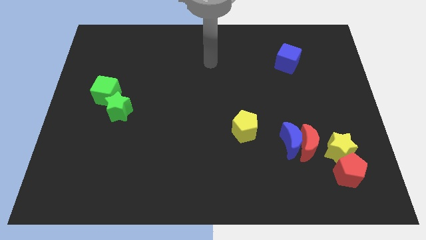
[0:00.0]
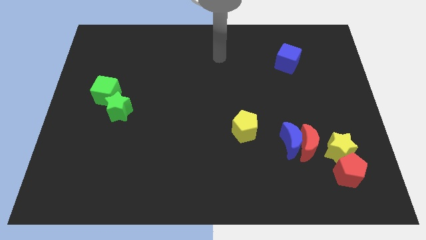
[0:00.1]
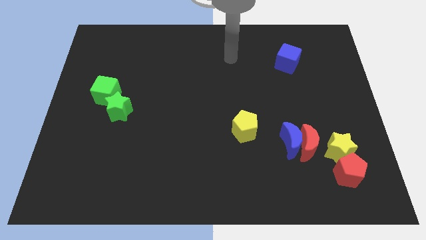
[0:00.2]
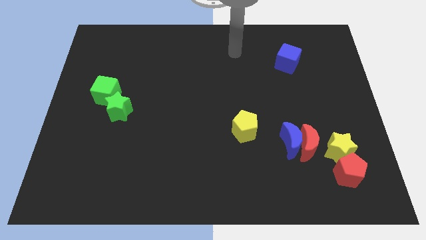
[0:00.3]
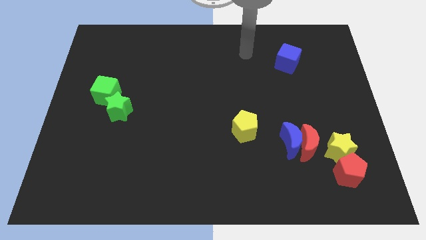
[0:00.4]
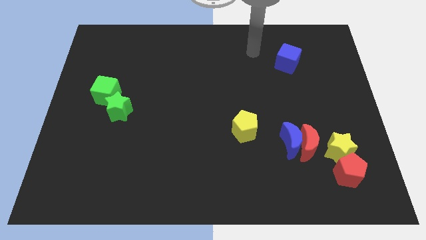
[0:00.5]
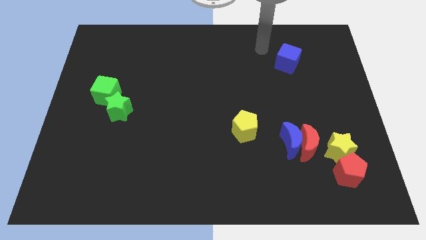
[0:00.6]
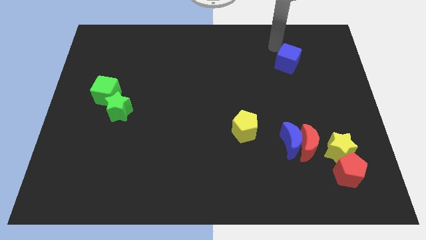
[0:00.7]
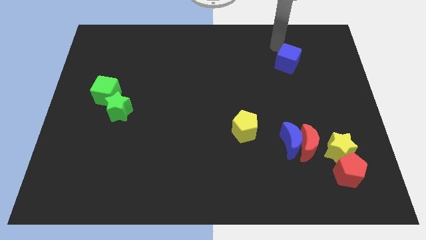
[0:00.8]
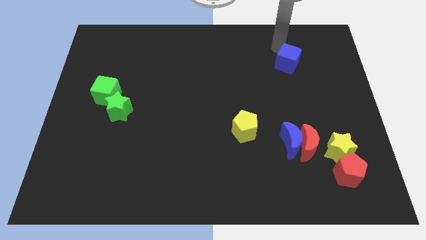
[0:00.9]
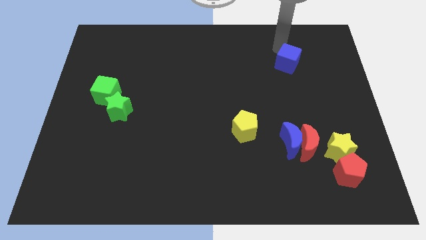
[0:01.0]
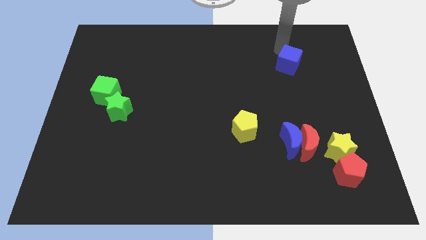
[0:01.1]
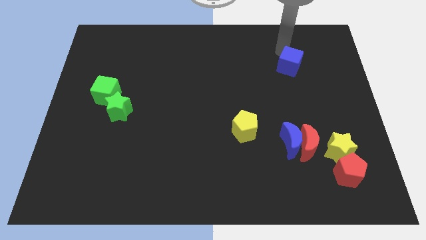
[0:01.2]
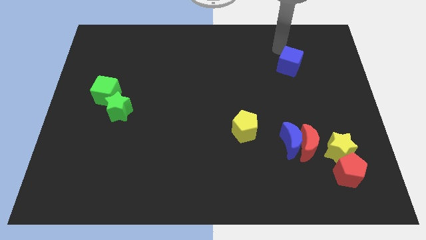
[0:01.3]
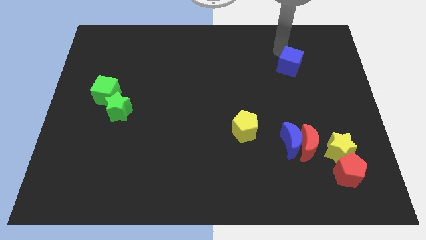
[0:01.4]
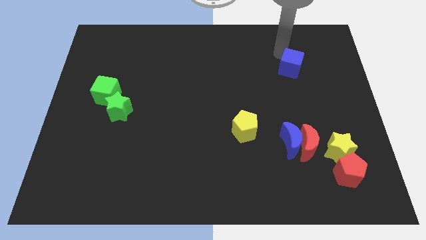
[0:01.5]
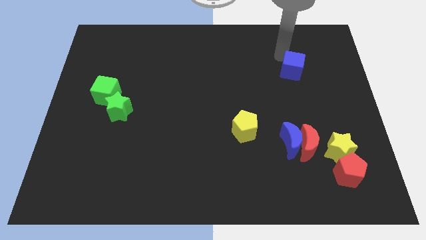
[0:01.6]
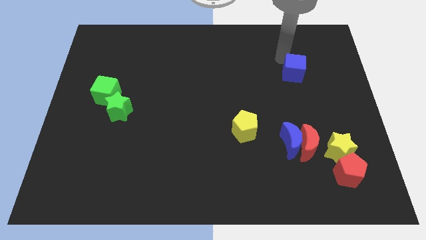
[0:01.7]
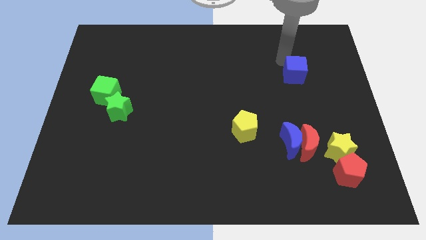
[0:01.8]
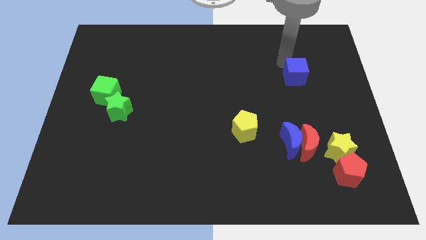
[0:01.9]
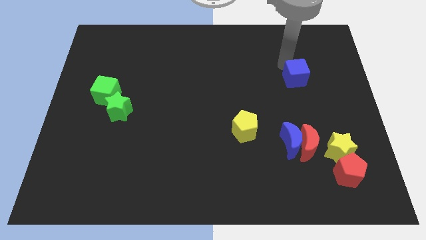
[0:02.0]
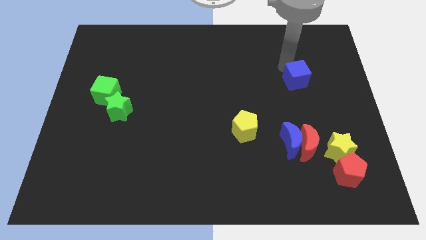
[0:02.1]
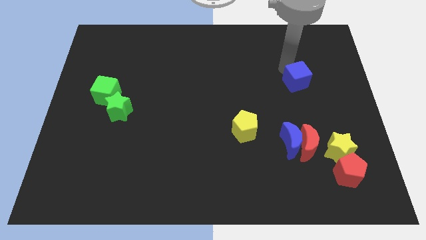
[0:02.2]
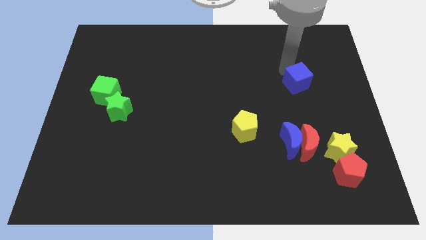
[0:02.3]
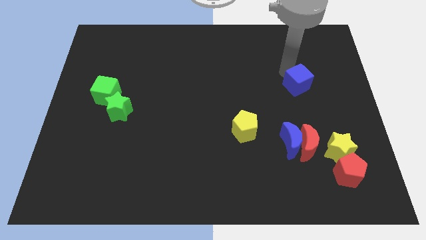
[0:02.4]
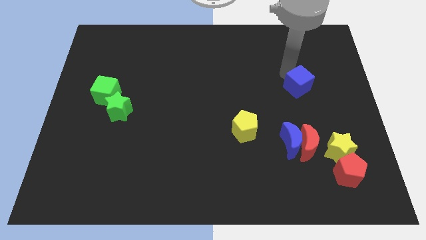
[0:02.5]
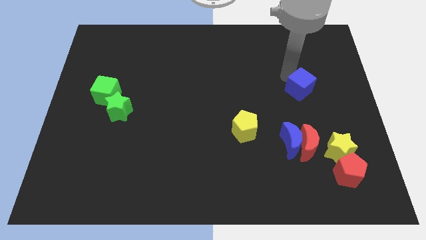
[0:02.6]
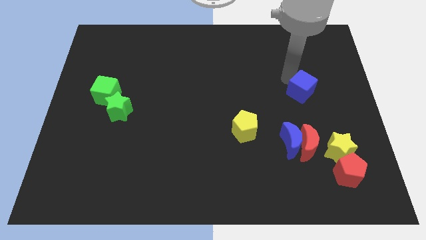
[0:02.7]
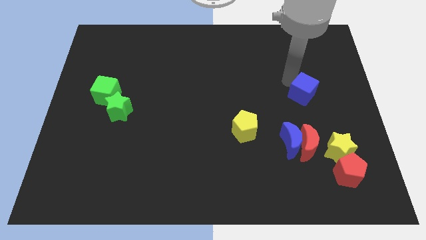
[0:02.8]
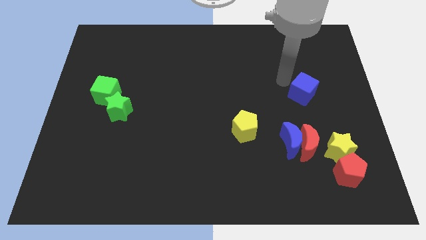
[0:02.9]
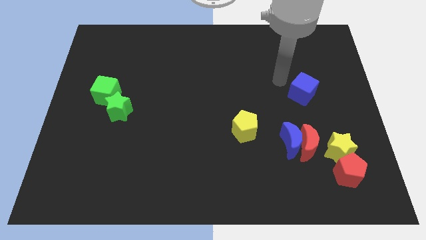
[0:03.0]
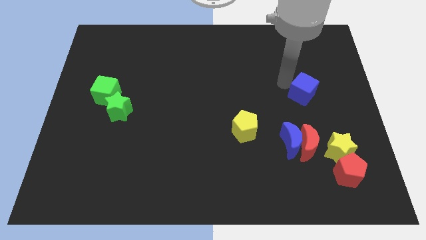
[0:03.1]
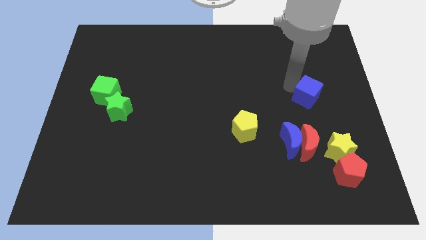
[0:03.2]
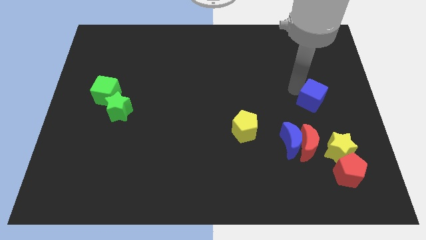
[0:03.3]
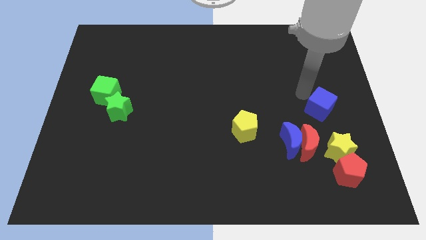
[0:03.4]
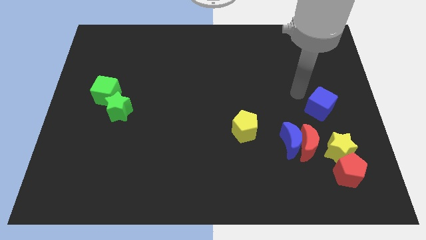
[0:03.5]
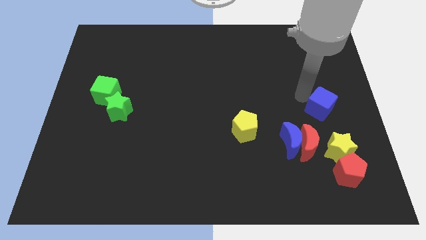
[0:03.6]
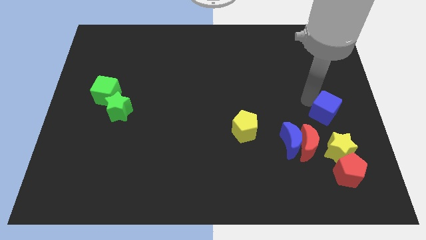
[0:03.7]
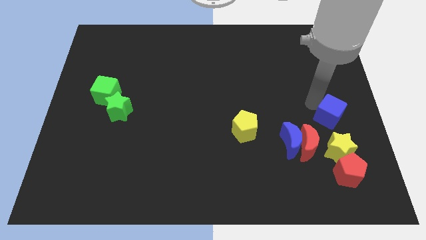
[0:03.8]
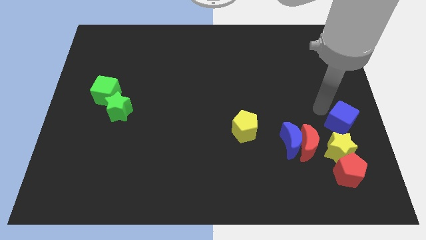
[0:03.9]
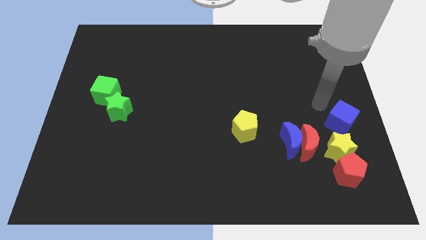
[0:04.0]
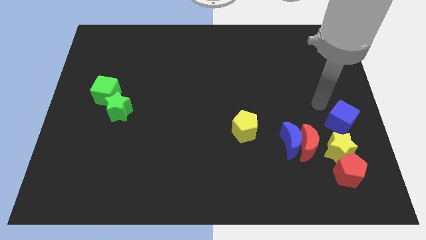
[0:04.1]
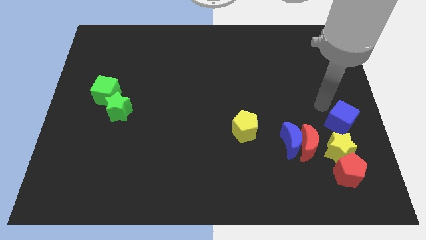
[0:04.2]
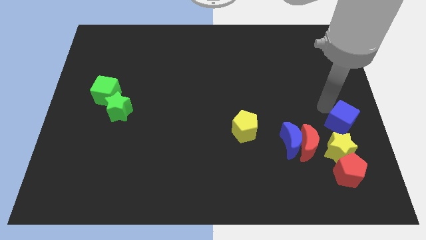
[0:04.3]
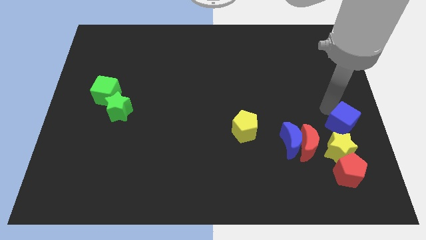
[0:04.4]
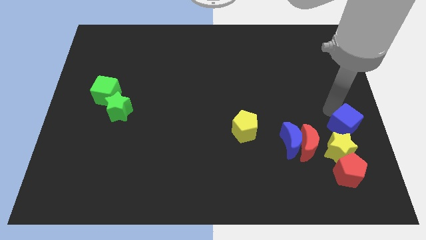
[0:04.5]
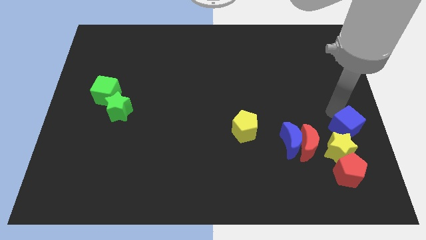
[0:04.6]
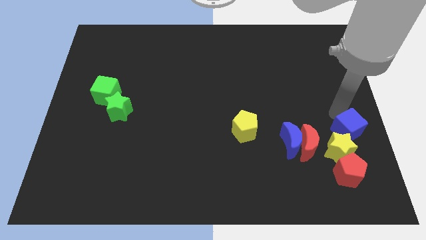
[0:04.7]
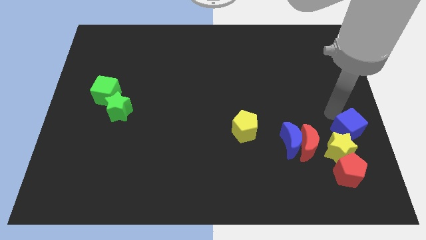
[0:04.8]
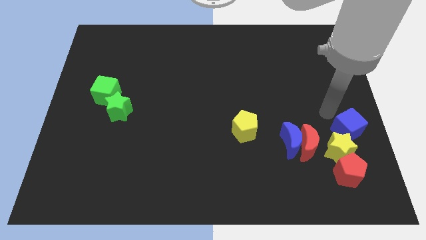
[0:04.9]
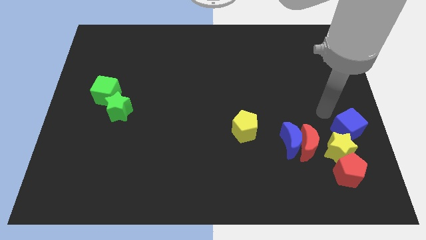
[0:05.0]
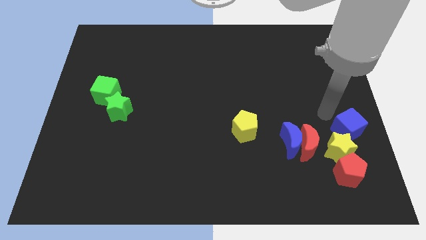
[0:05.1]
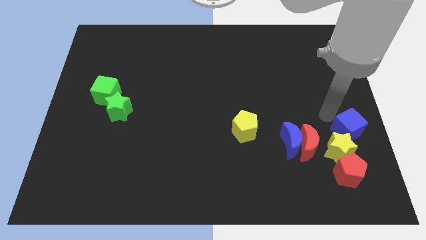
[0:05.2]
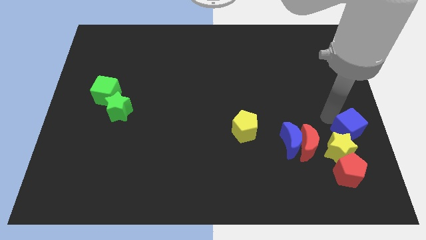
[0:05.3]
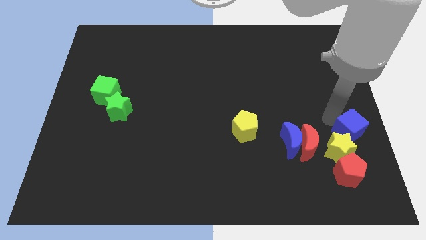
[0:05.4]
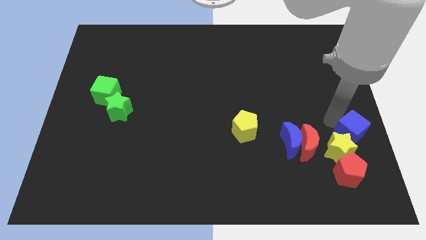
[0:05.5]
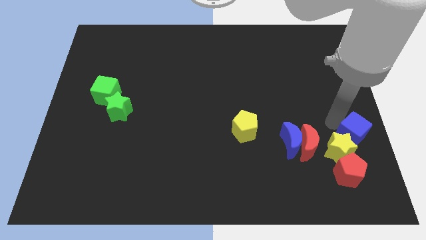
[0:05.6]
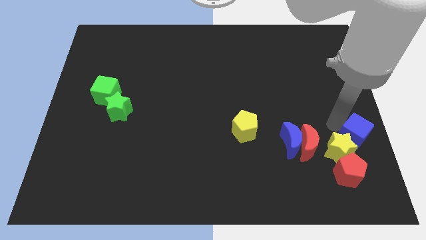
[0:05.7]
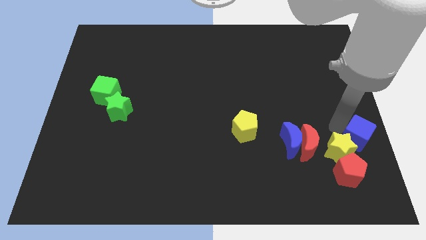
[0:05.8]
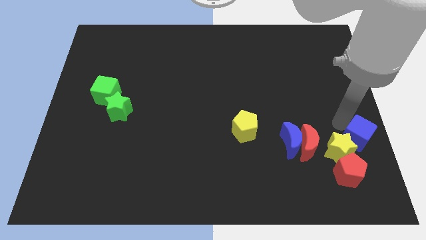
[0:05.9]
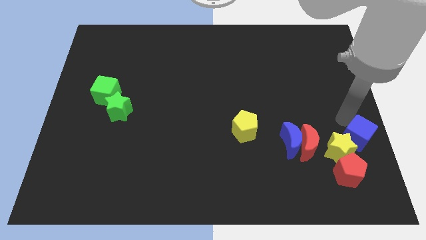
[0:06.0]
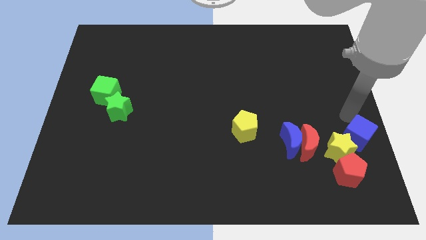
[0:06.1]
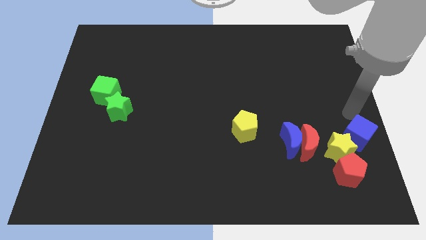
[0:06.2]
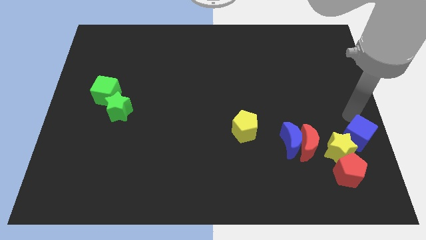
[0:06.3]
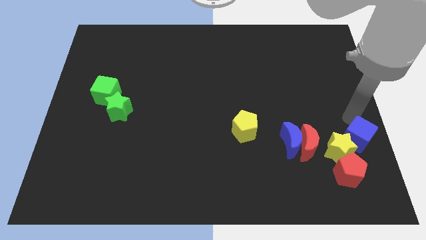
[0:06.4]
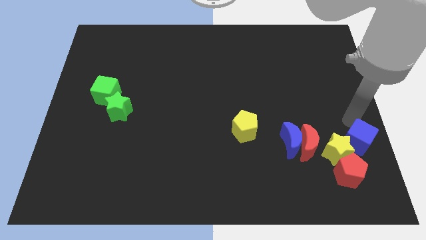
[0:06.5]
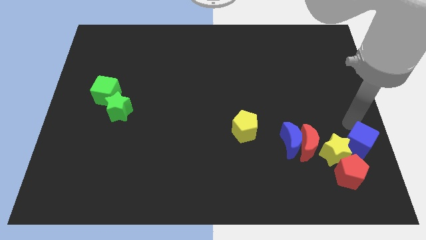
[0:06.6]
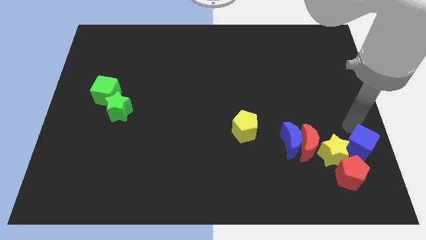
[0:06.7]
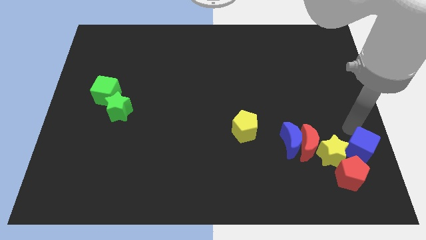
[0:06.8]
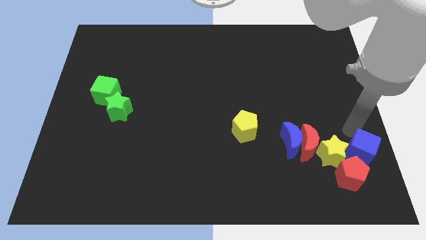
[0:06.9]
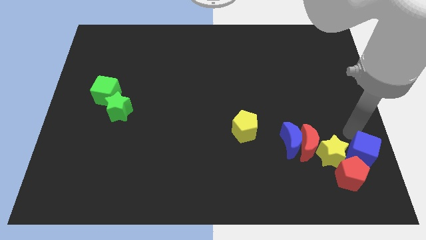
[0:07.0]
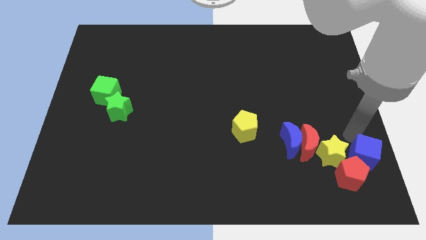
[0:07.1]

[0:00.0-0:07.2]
put the blue cube next to the red pentagon

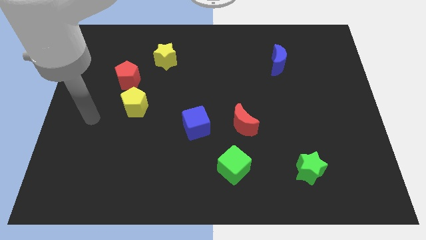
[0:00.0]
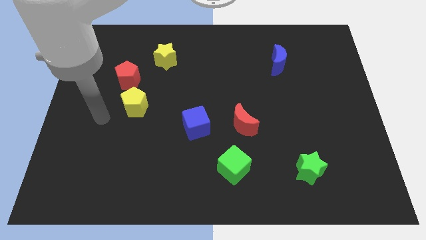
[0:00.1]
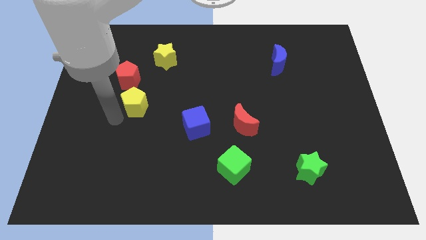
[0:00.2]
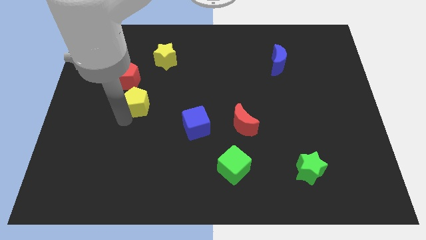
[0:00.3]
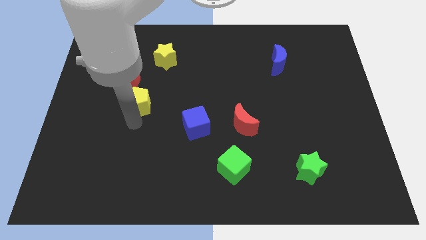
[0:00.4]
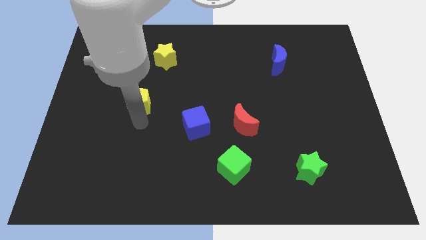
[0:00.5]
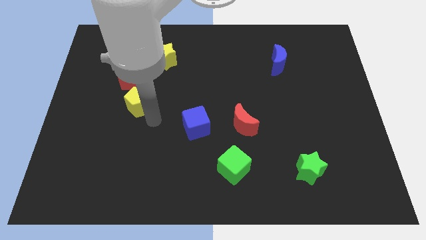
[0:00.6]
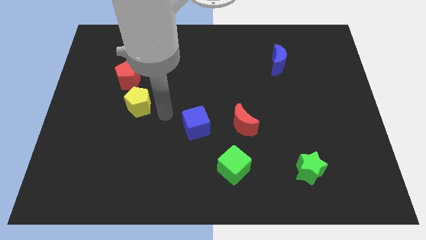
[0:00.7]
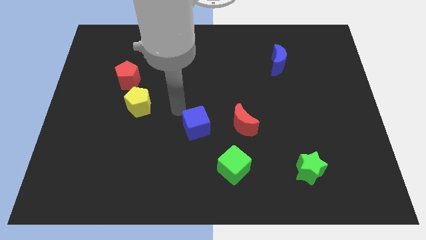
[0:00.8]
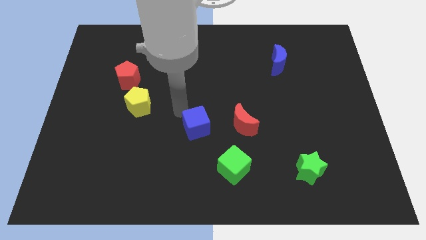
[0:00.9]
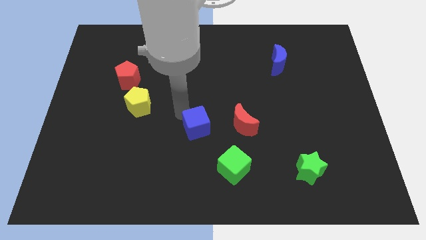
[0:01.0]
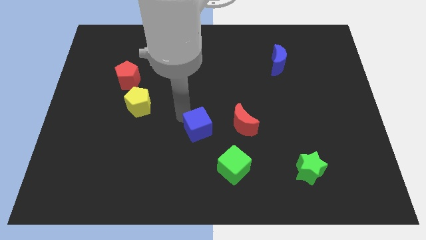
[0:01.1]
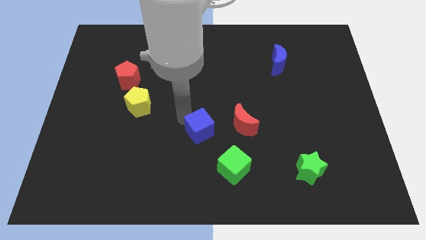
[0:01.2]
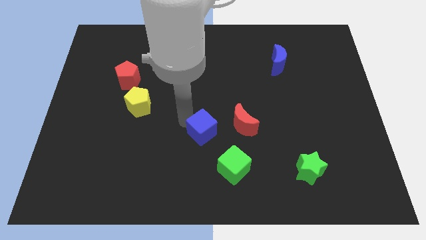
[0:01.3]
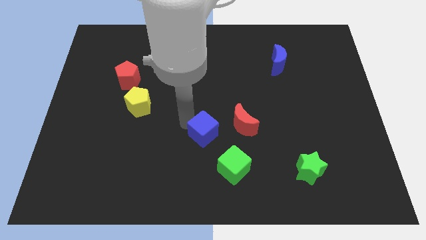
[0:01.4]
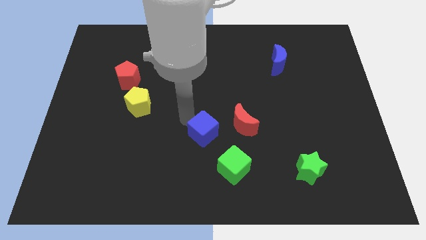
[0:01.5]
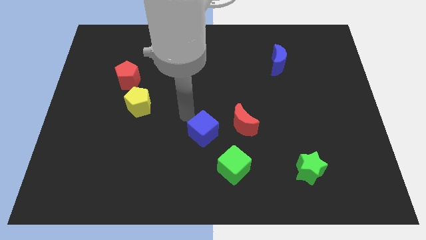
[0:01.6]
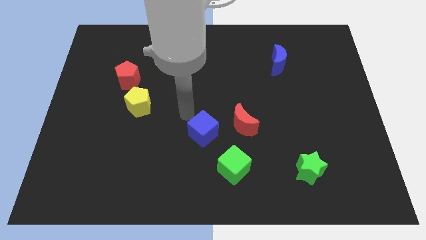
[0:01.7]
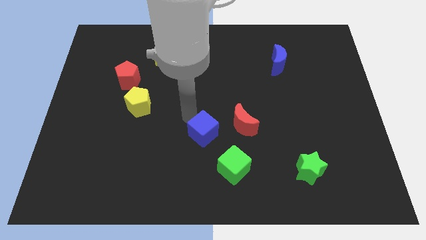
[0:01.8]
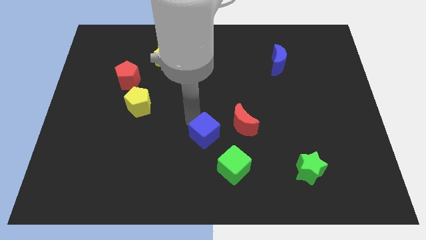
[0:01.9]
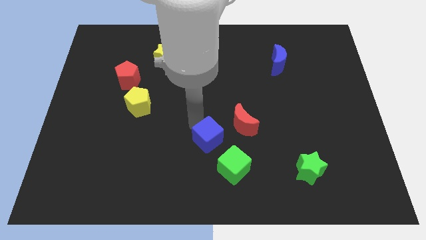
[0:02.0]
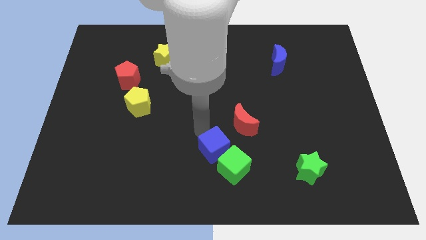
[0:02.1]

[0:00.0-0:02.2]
move the blue cube to the green cube
